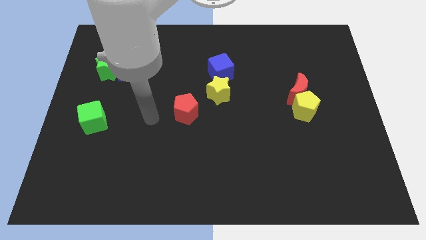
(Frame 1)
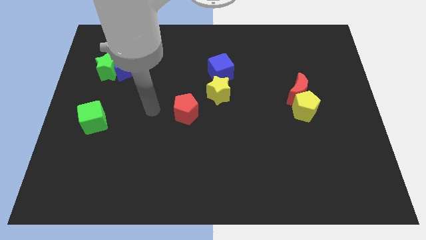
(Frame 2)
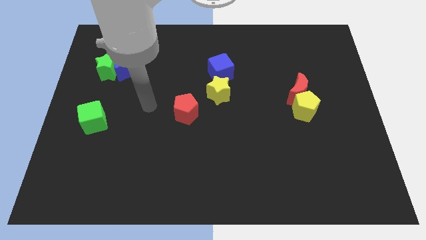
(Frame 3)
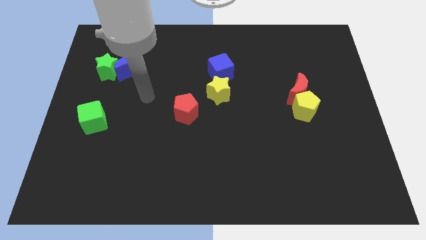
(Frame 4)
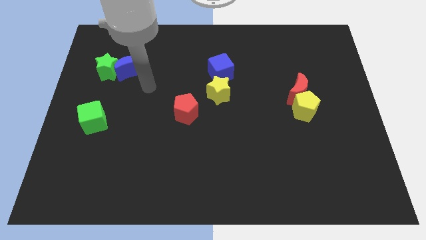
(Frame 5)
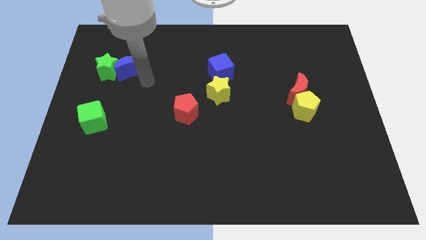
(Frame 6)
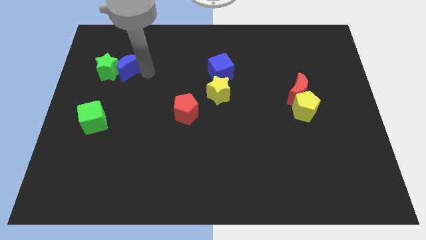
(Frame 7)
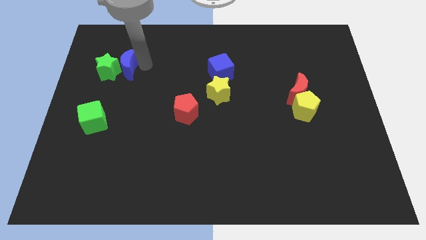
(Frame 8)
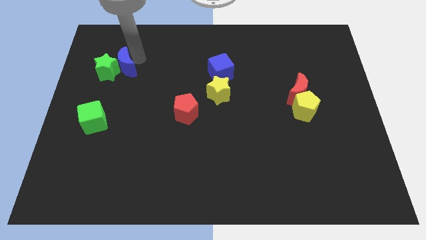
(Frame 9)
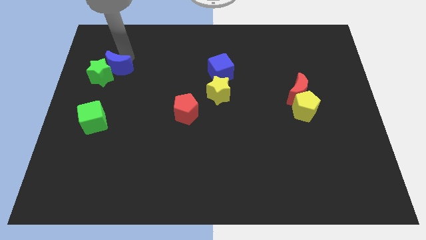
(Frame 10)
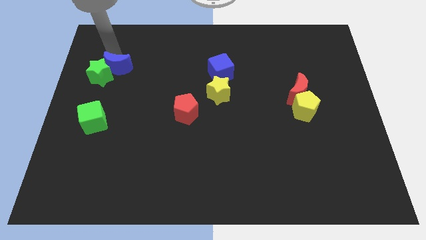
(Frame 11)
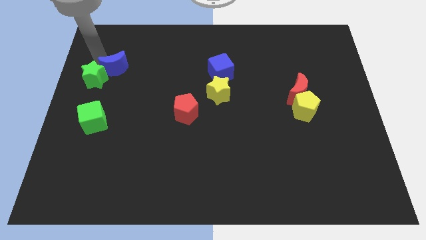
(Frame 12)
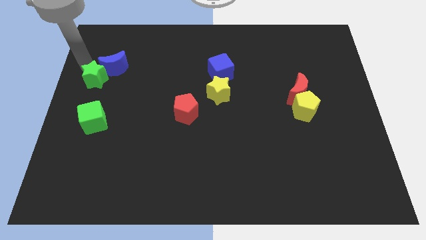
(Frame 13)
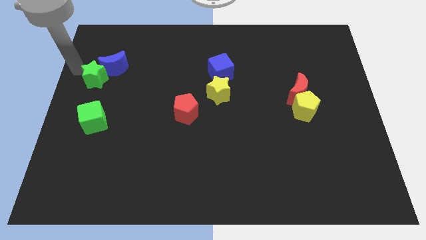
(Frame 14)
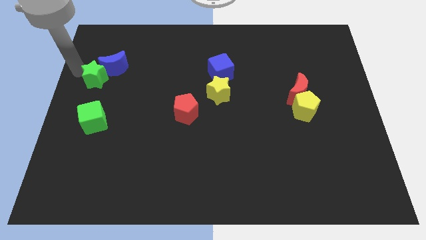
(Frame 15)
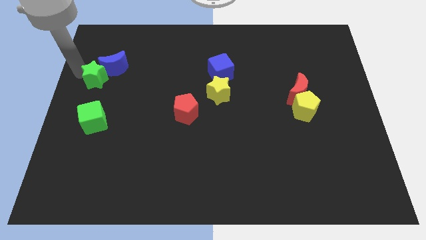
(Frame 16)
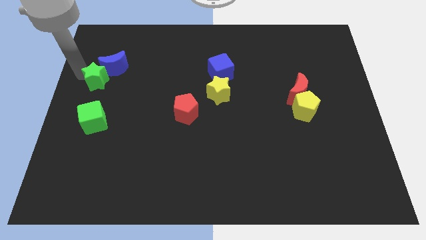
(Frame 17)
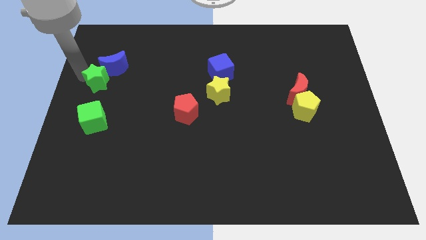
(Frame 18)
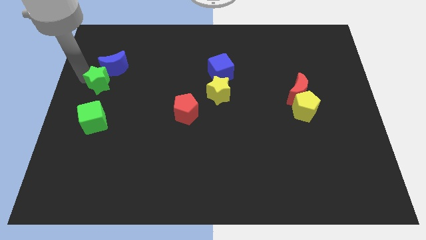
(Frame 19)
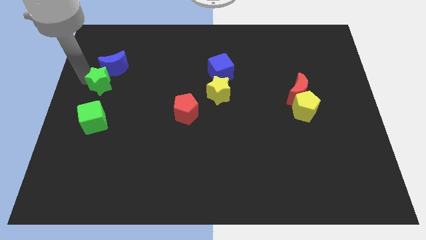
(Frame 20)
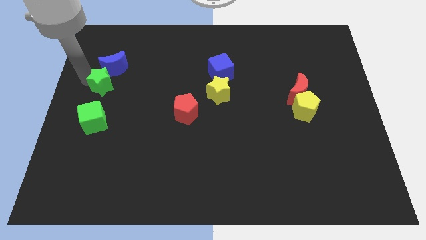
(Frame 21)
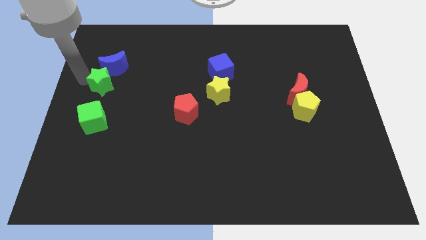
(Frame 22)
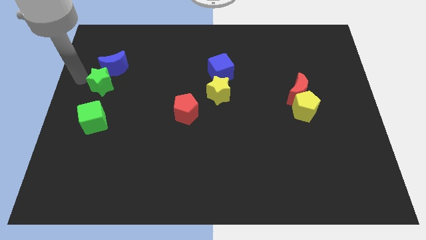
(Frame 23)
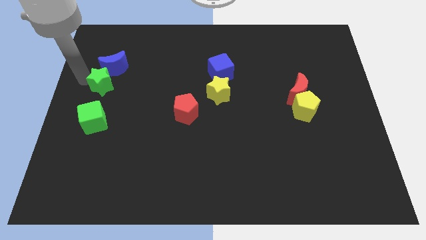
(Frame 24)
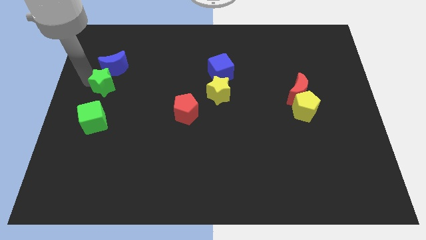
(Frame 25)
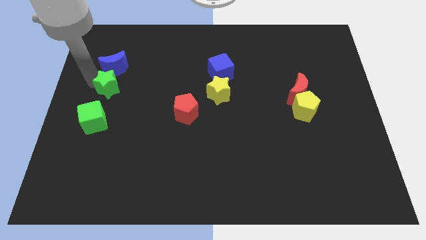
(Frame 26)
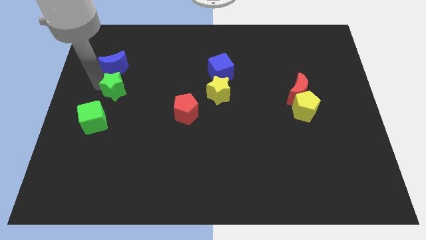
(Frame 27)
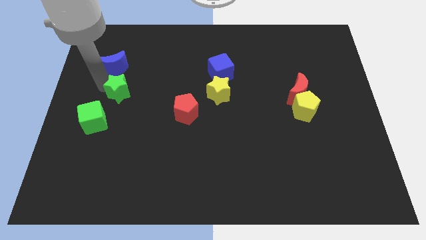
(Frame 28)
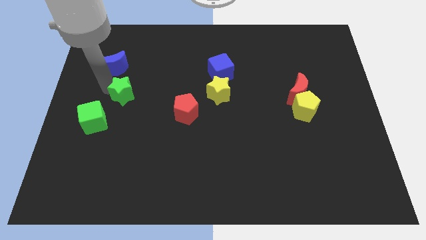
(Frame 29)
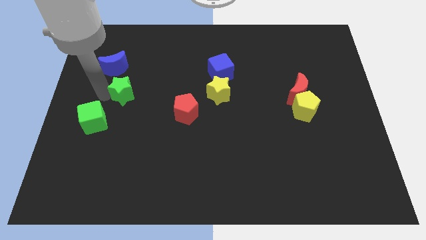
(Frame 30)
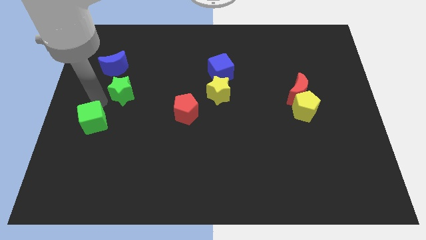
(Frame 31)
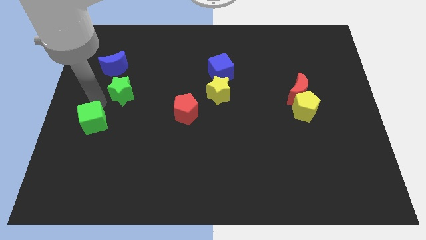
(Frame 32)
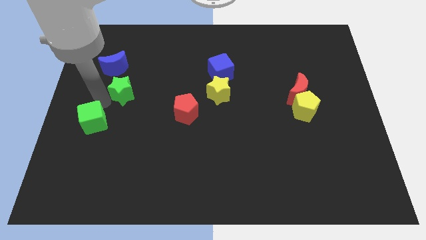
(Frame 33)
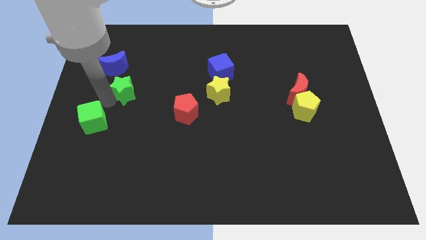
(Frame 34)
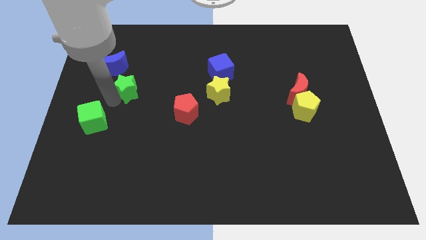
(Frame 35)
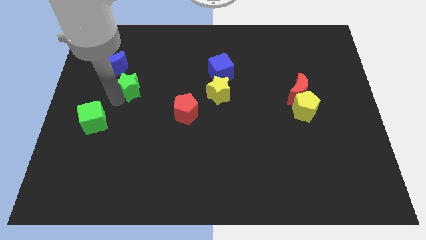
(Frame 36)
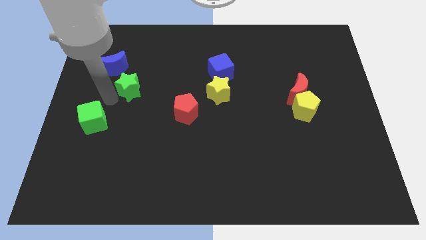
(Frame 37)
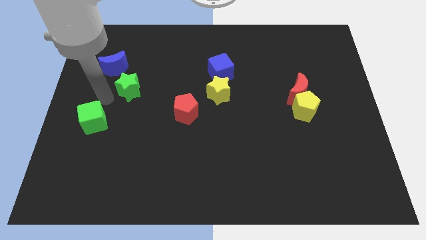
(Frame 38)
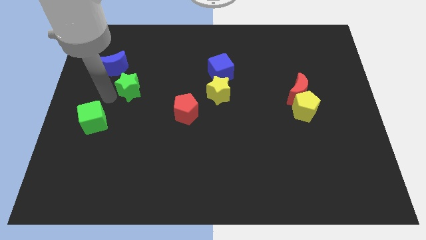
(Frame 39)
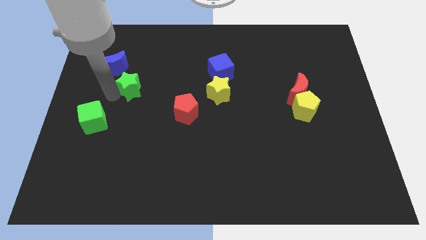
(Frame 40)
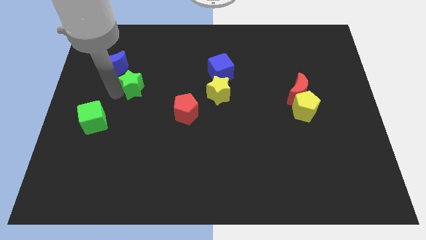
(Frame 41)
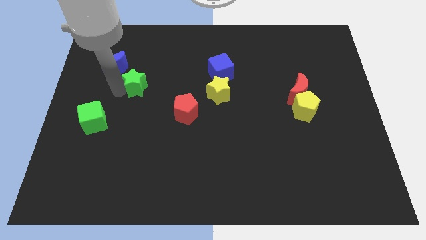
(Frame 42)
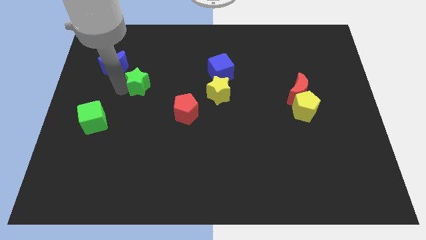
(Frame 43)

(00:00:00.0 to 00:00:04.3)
slide the green star a little to the right

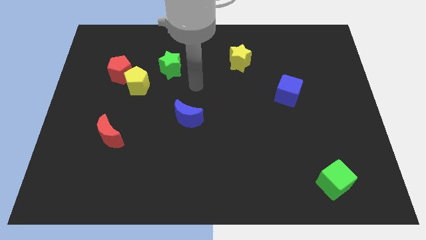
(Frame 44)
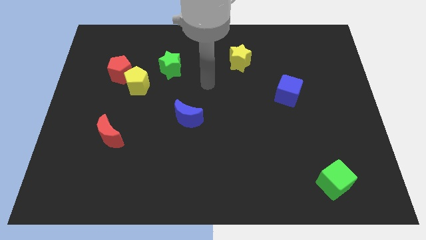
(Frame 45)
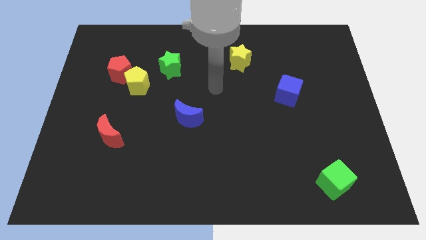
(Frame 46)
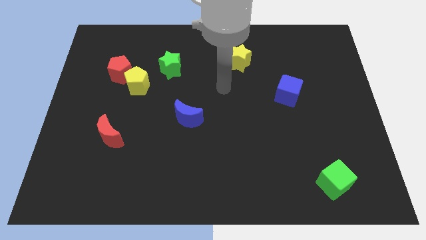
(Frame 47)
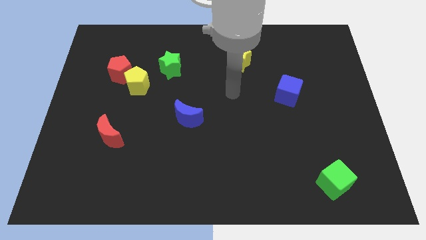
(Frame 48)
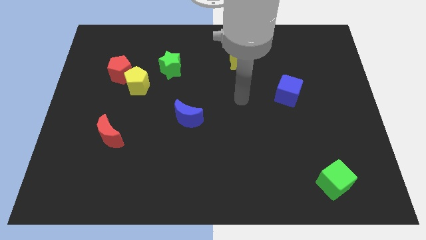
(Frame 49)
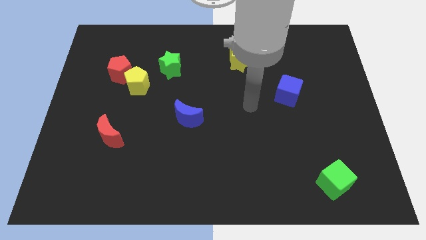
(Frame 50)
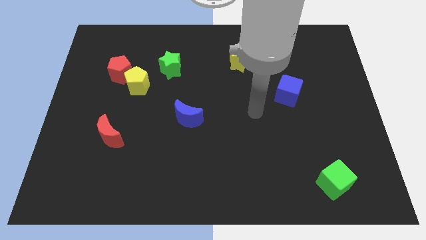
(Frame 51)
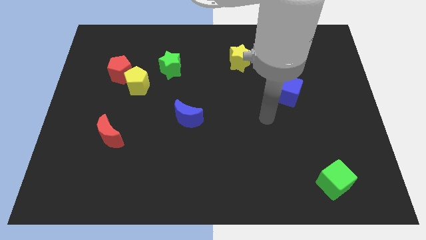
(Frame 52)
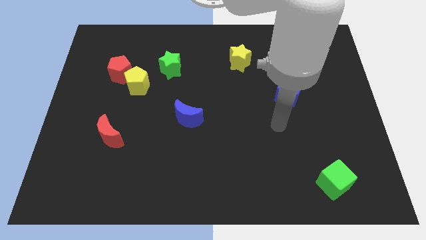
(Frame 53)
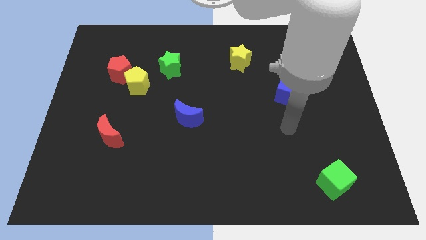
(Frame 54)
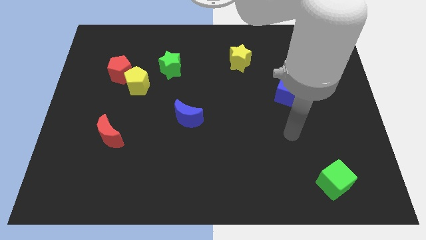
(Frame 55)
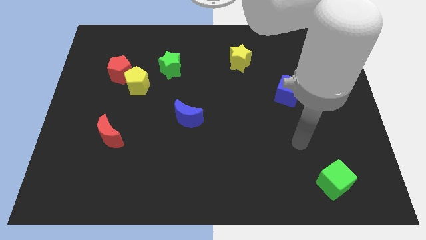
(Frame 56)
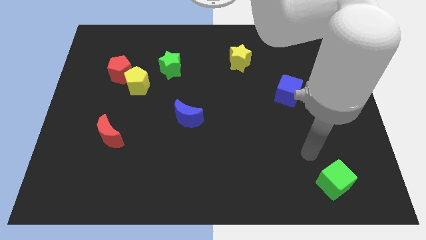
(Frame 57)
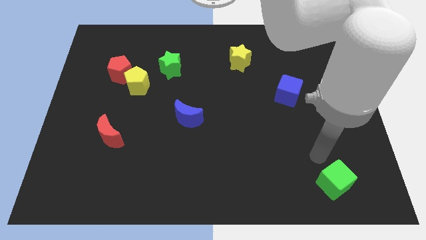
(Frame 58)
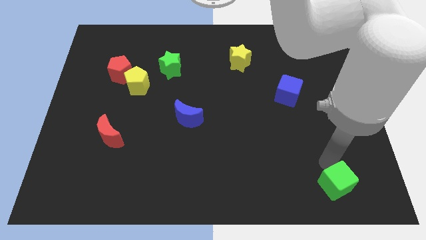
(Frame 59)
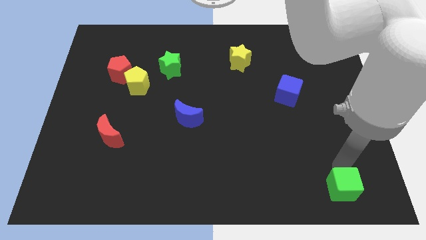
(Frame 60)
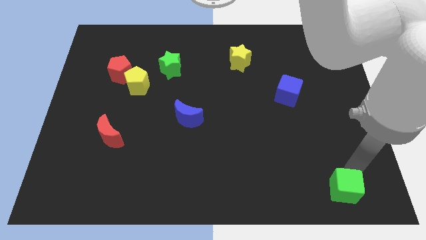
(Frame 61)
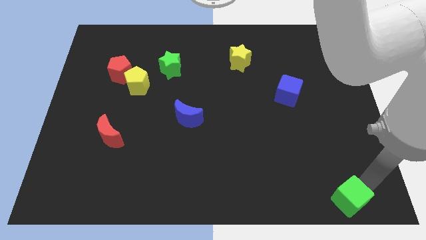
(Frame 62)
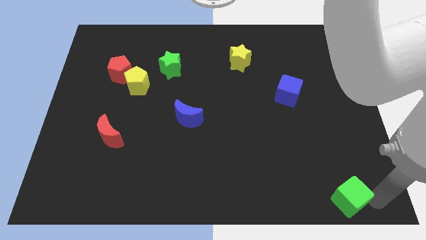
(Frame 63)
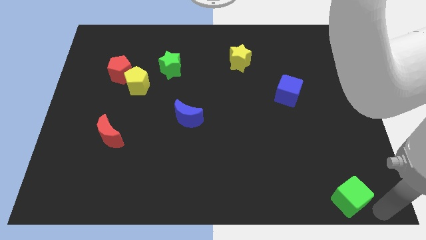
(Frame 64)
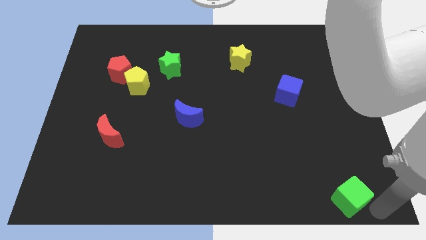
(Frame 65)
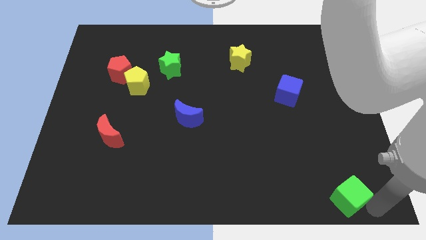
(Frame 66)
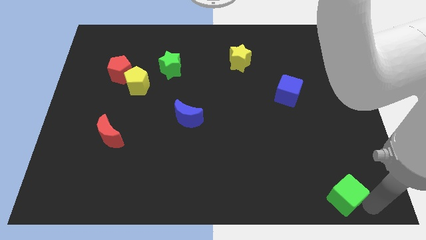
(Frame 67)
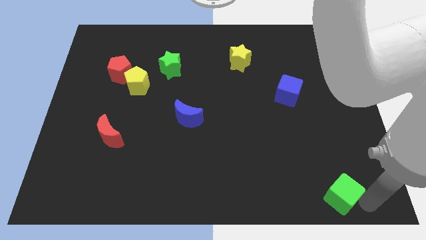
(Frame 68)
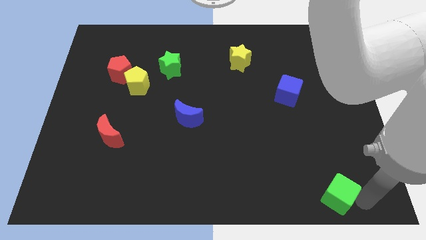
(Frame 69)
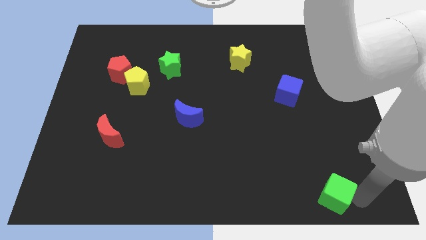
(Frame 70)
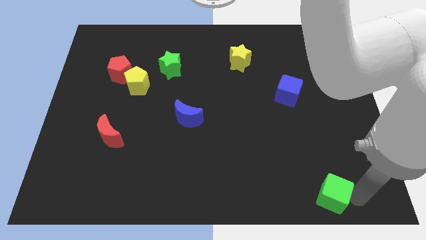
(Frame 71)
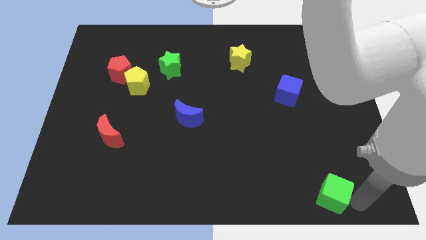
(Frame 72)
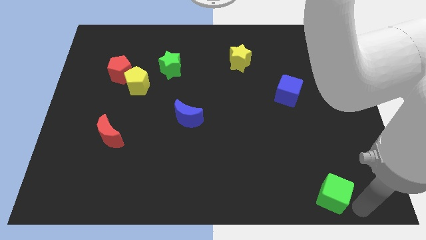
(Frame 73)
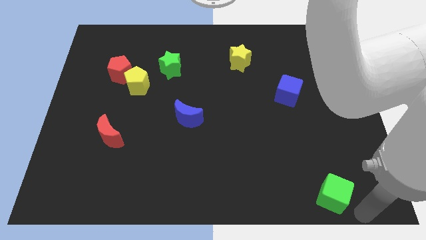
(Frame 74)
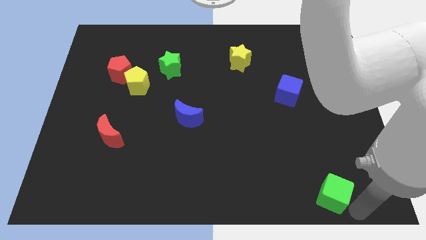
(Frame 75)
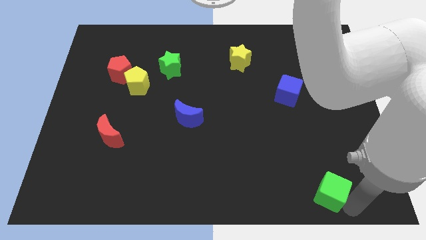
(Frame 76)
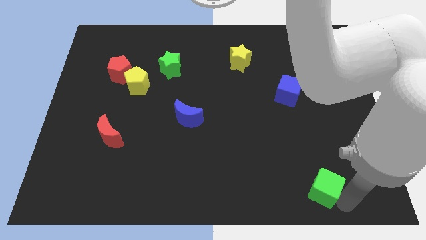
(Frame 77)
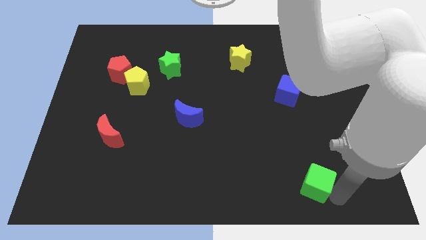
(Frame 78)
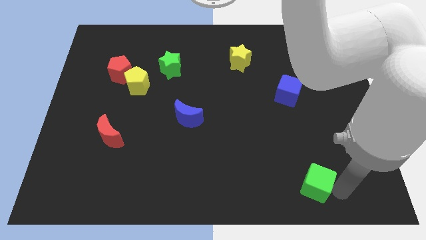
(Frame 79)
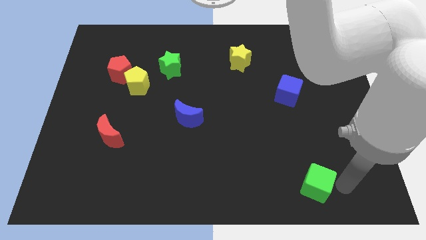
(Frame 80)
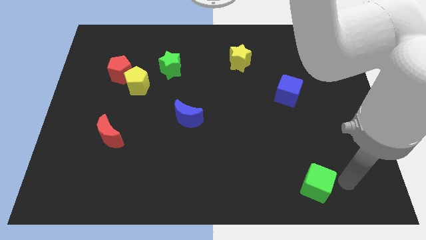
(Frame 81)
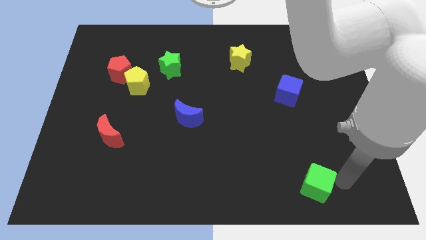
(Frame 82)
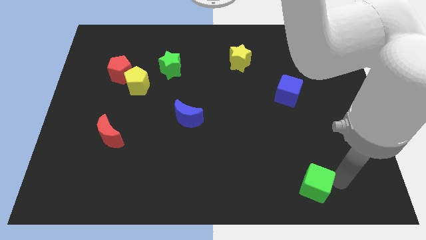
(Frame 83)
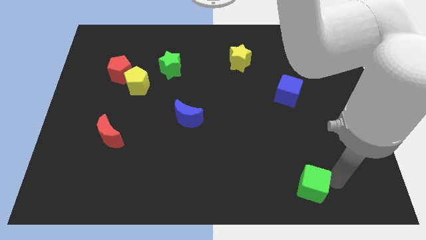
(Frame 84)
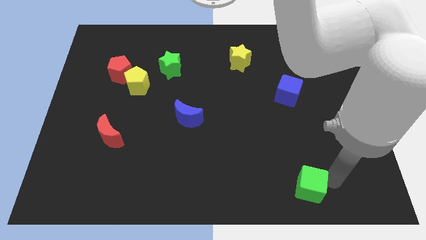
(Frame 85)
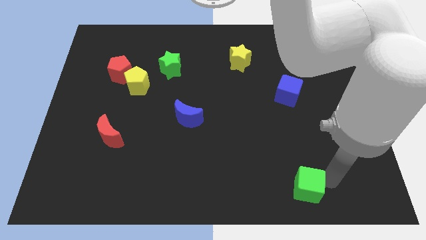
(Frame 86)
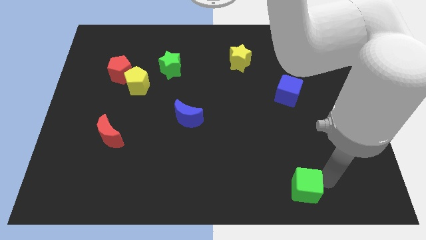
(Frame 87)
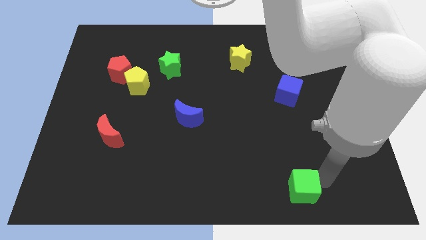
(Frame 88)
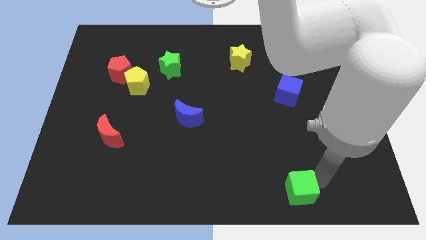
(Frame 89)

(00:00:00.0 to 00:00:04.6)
slide the green cube somewhat to the left
